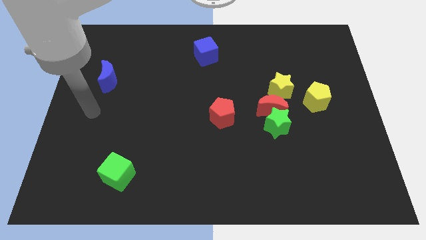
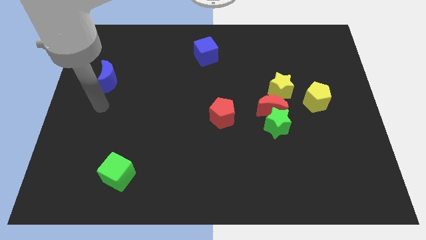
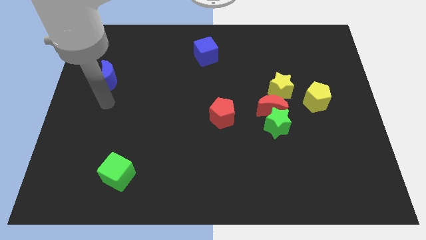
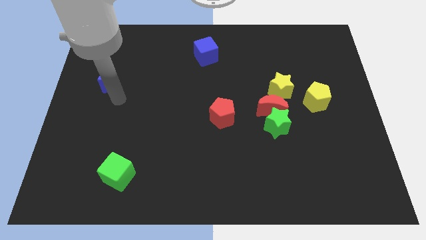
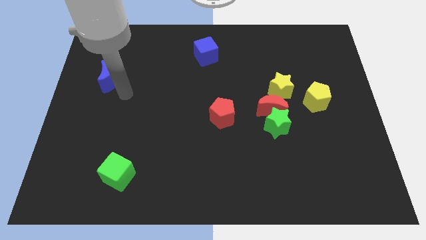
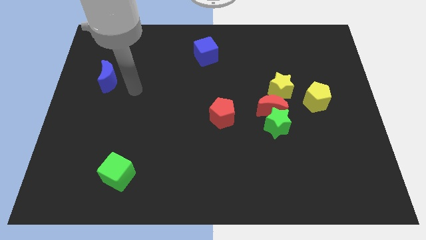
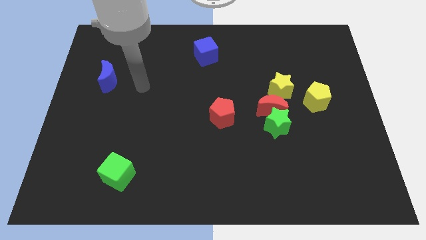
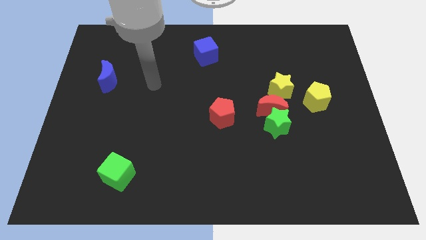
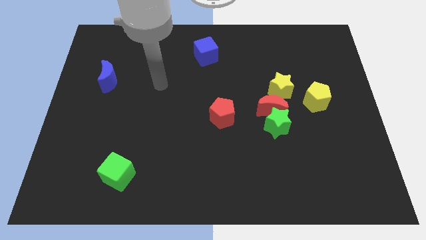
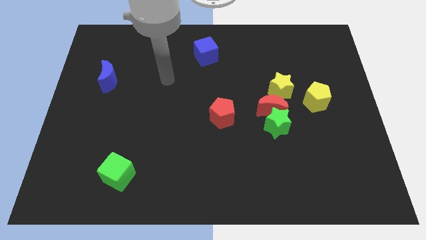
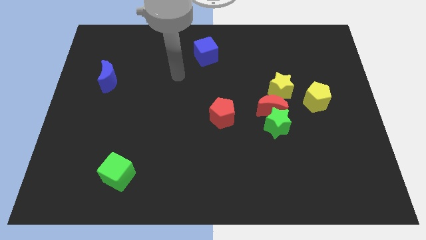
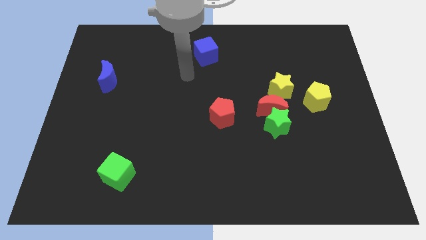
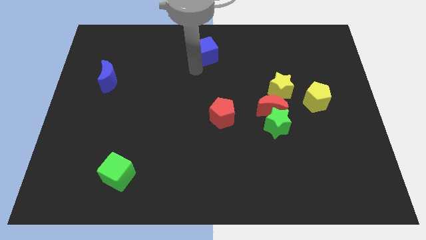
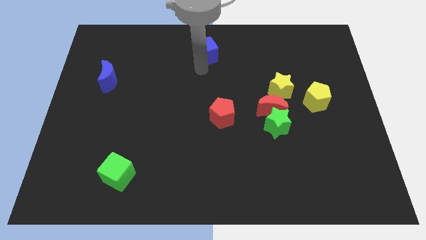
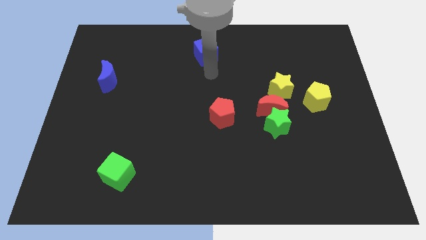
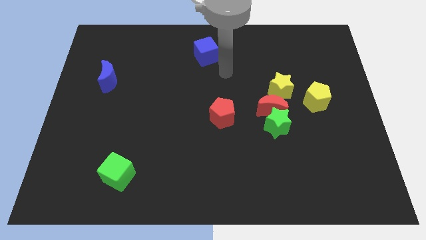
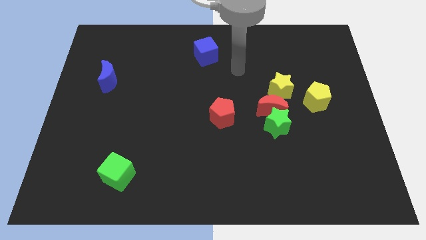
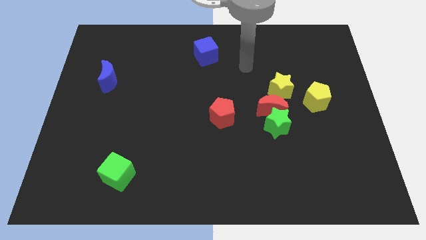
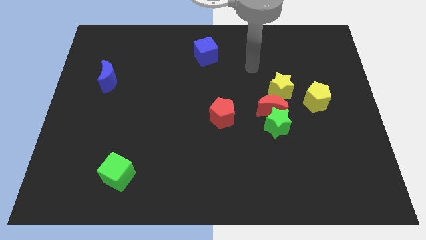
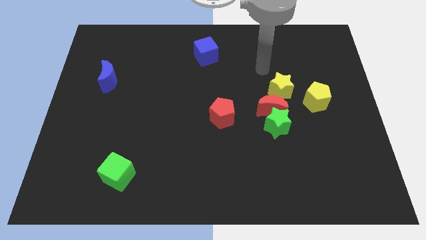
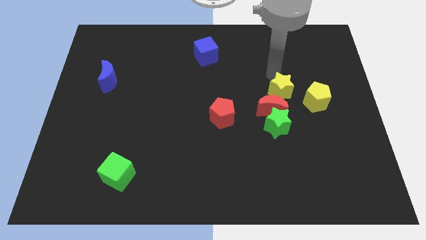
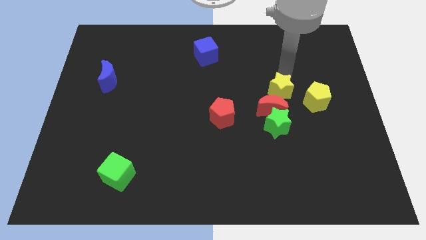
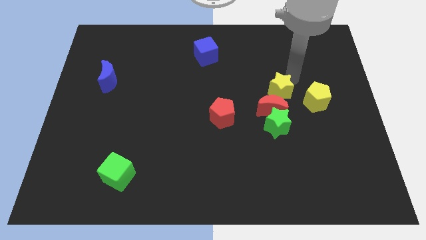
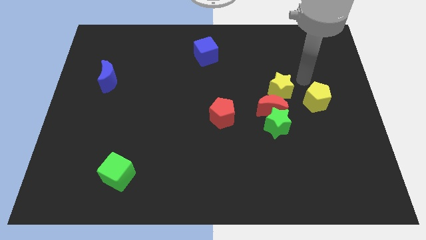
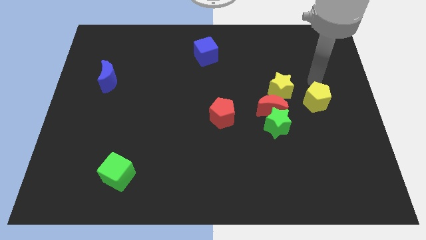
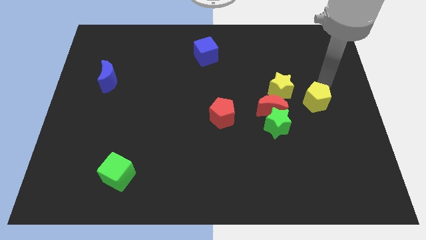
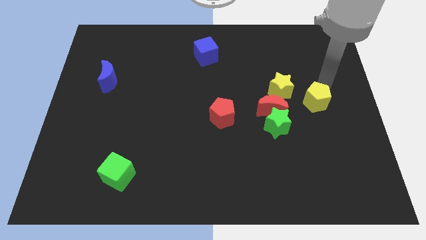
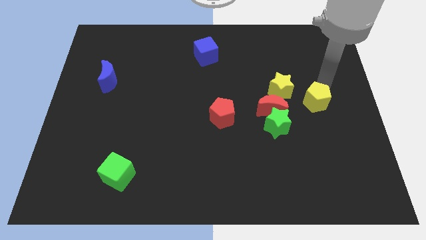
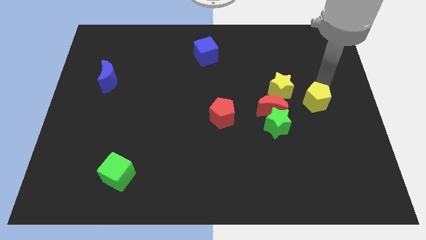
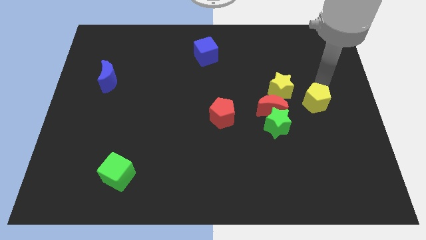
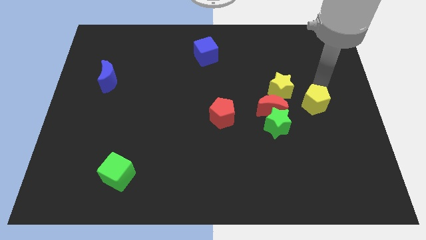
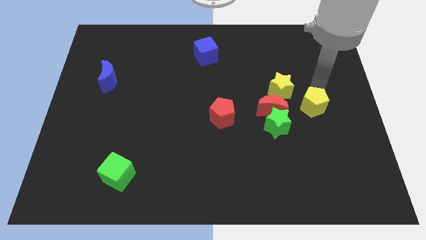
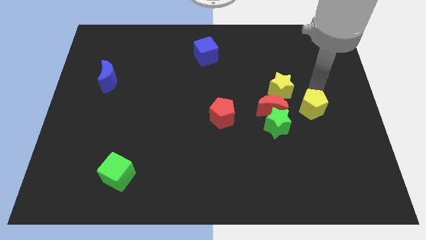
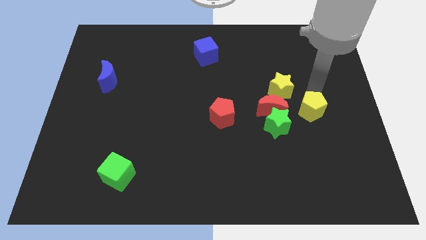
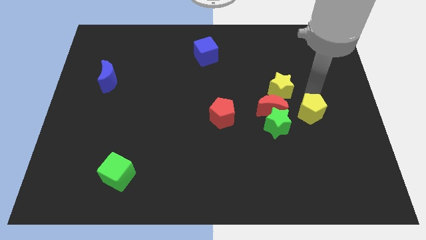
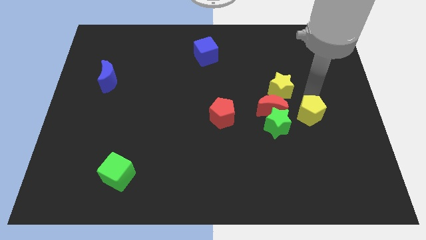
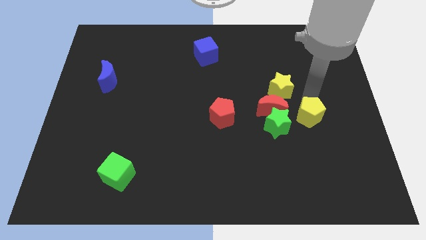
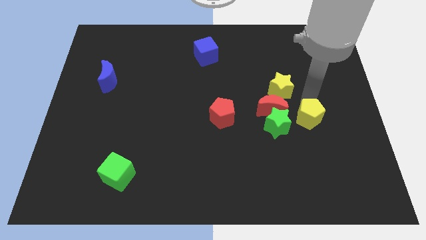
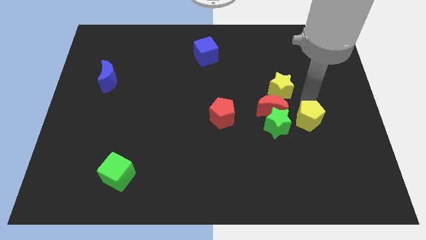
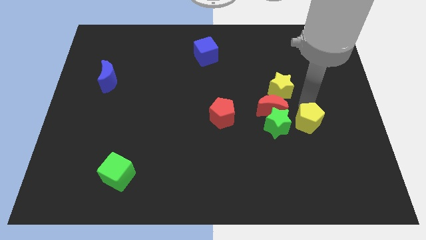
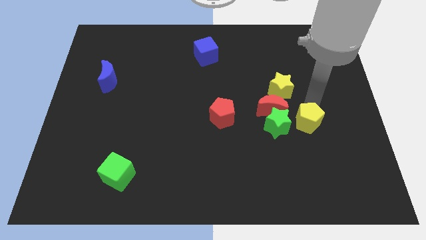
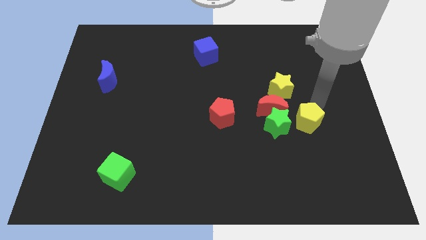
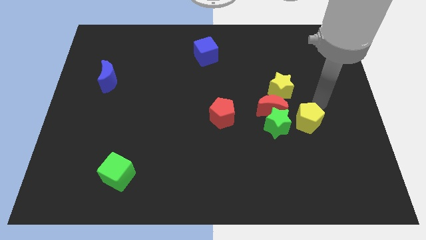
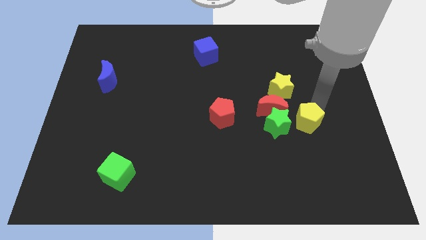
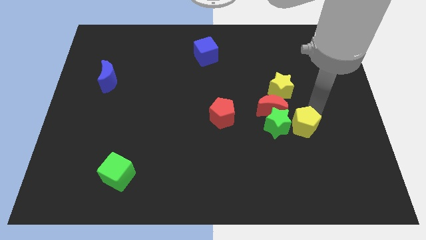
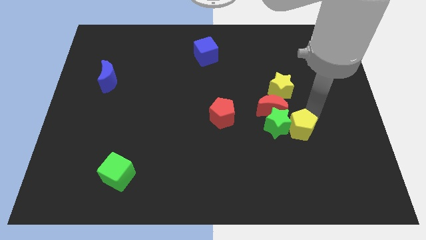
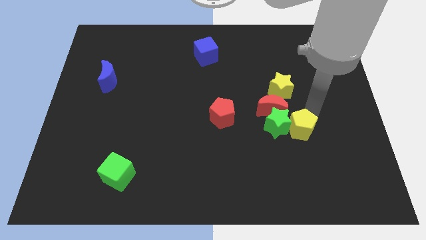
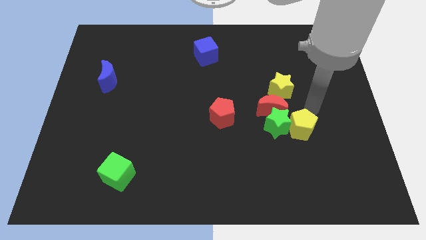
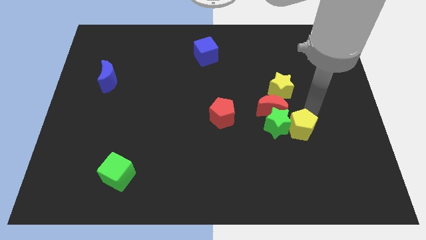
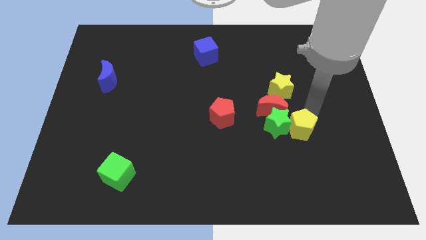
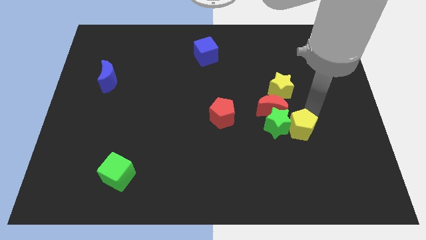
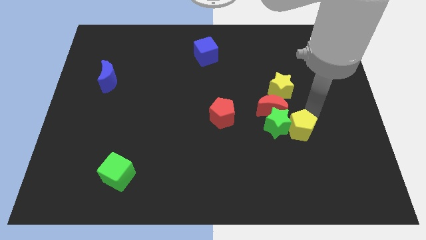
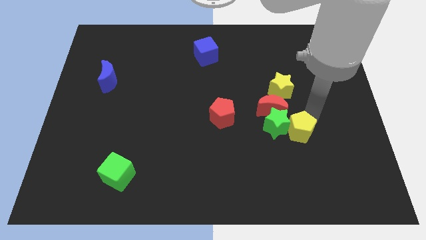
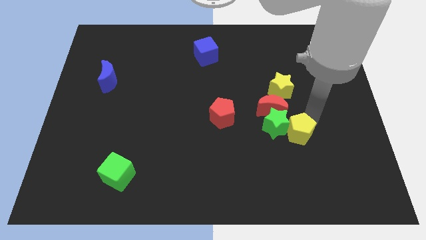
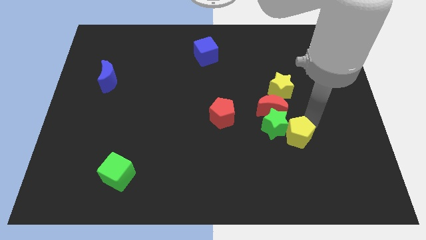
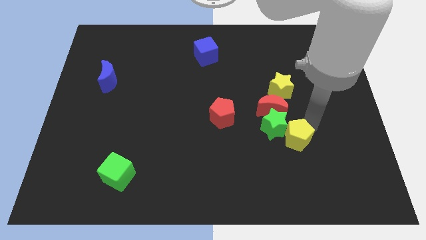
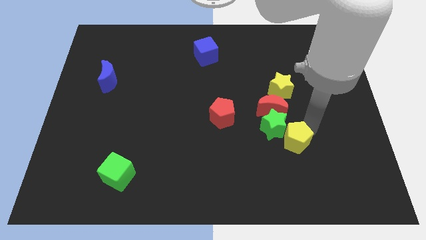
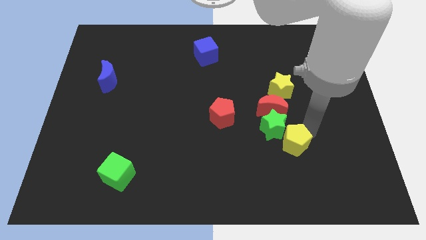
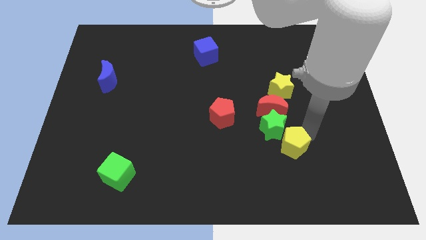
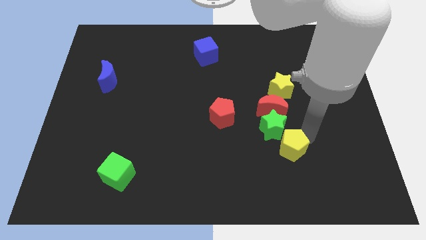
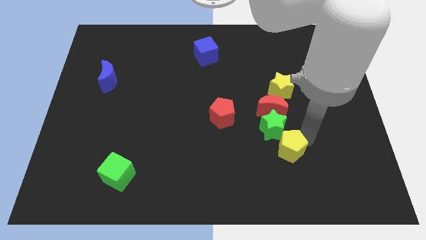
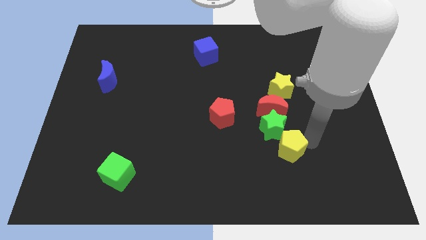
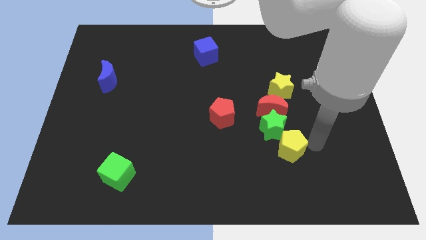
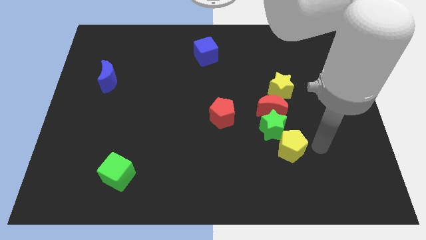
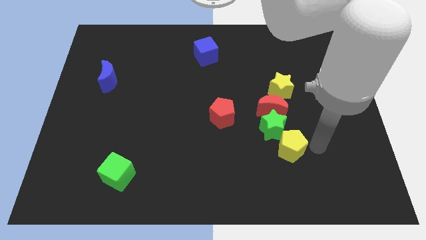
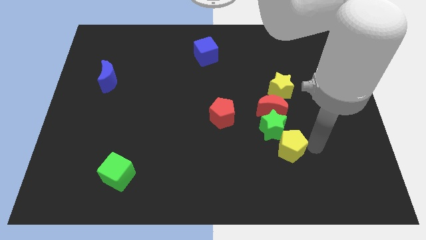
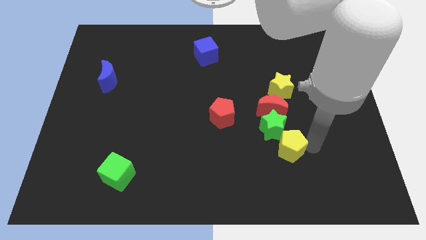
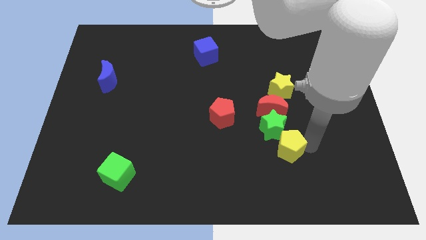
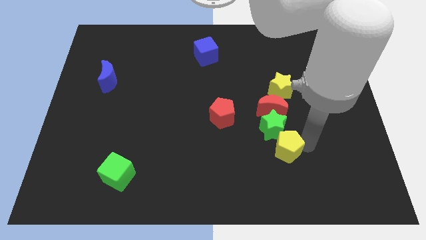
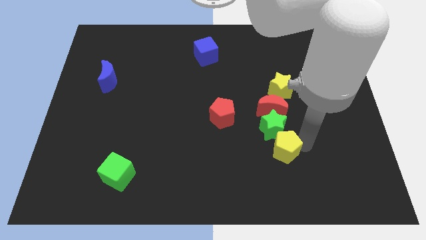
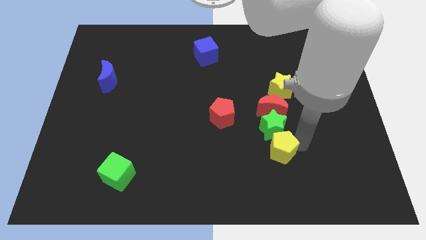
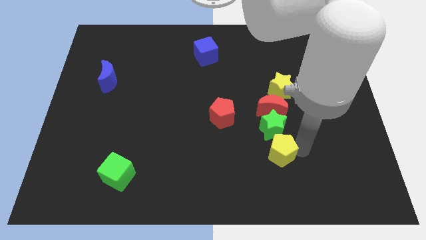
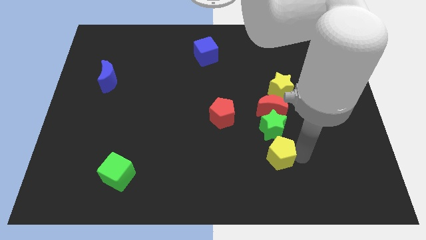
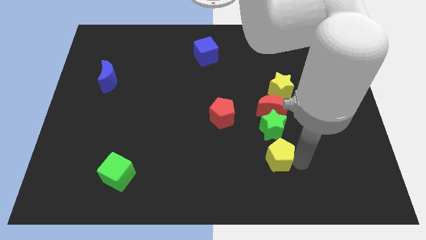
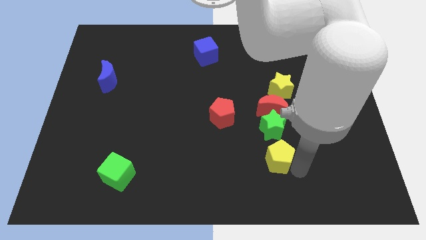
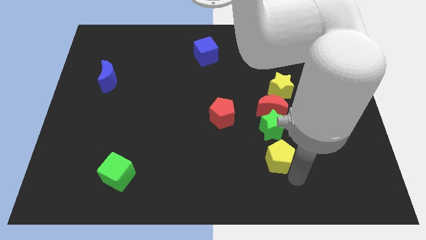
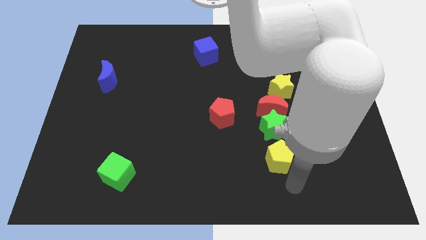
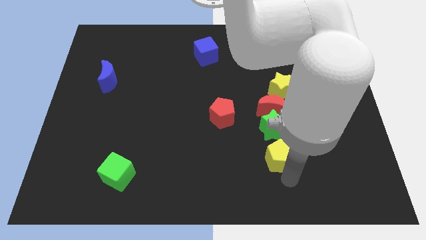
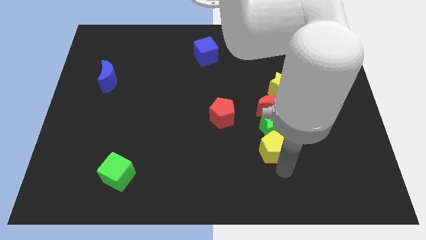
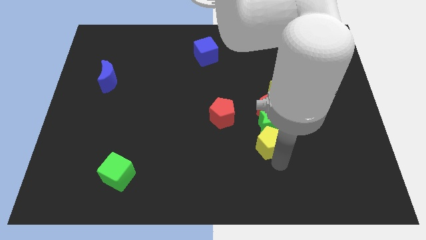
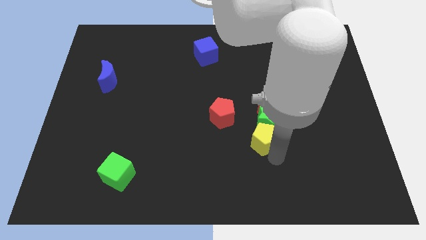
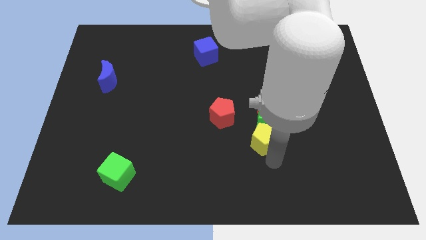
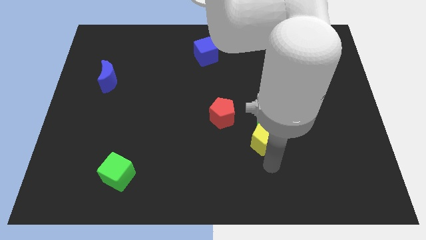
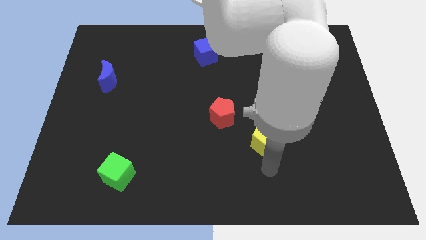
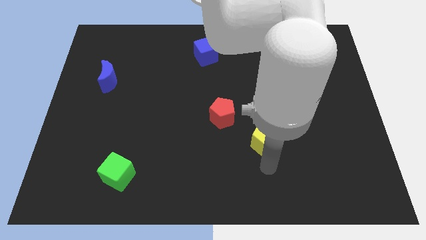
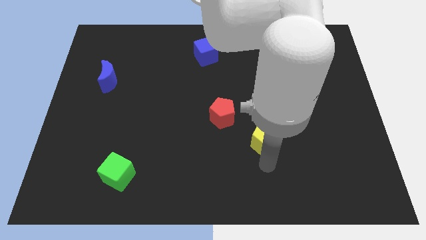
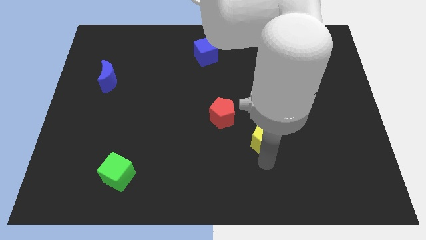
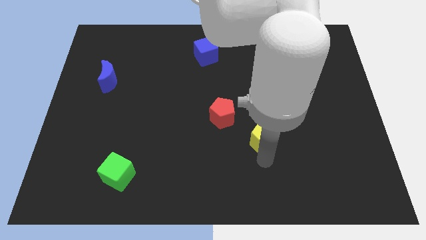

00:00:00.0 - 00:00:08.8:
slightly push the yellow pentagon left
